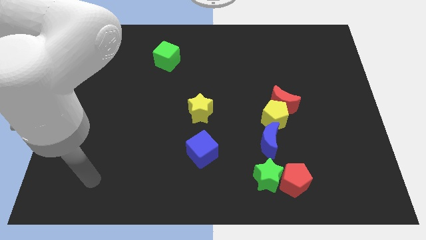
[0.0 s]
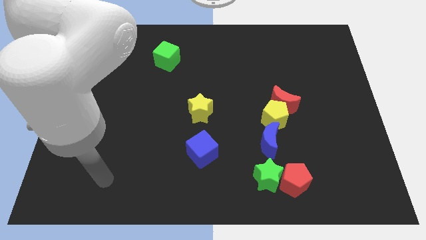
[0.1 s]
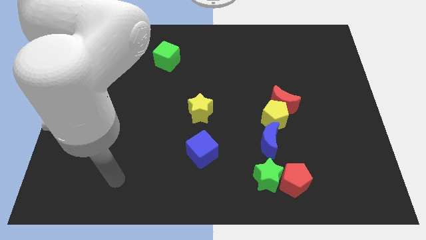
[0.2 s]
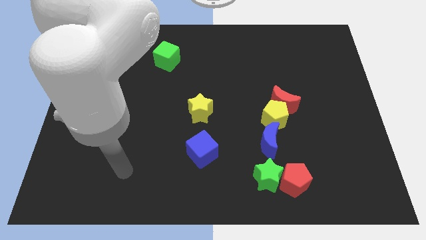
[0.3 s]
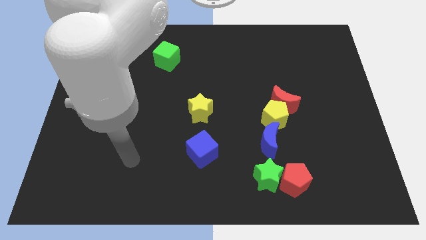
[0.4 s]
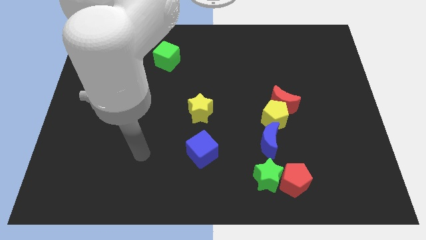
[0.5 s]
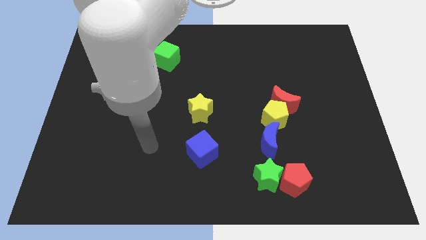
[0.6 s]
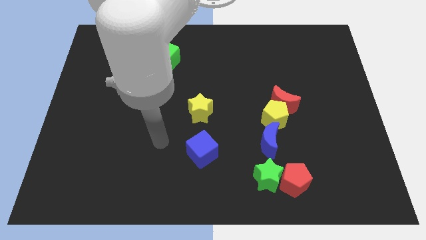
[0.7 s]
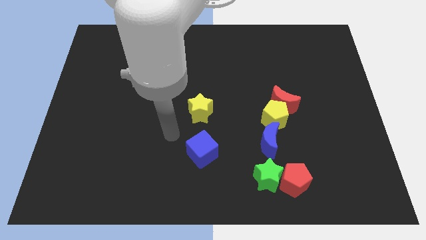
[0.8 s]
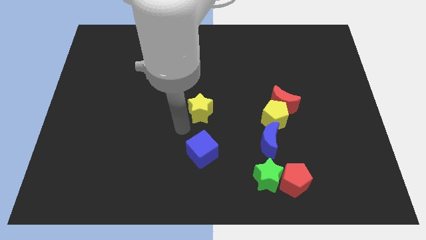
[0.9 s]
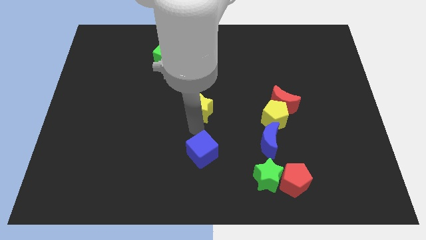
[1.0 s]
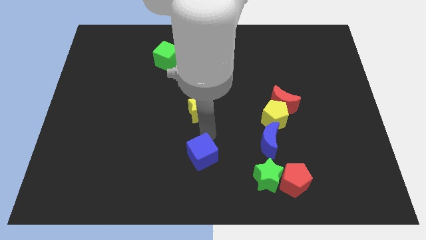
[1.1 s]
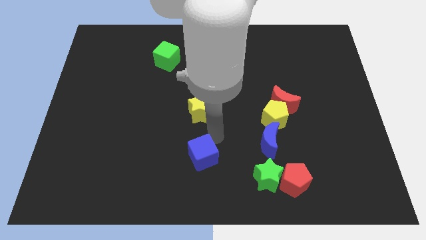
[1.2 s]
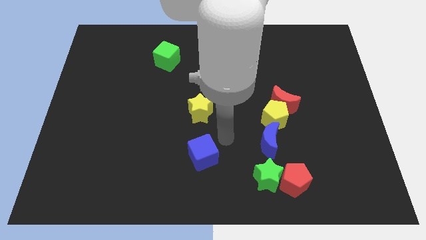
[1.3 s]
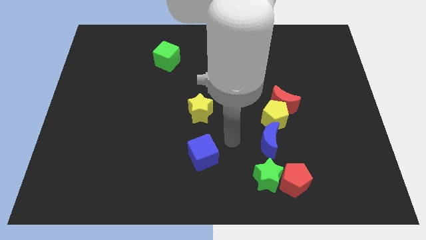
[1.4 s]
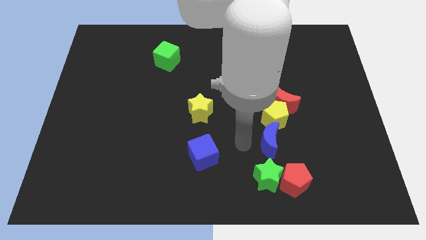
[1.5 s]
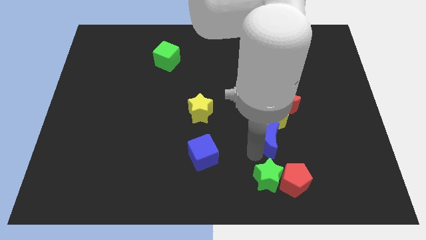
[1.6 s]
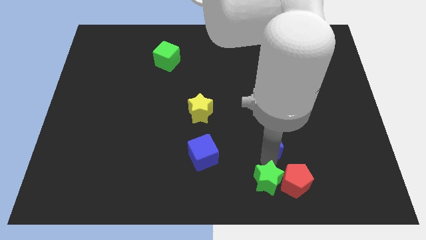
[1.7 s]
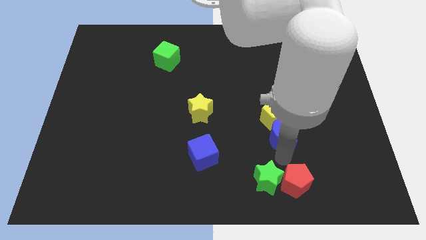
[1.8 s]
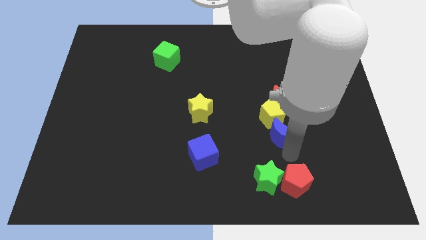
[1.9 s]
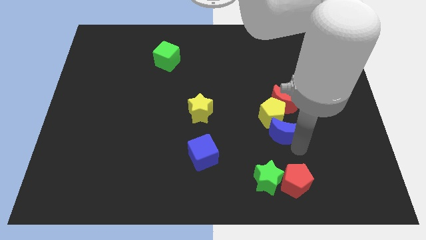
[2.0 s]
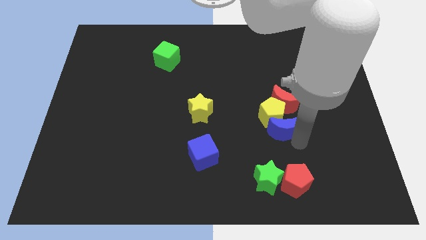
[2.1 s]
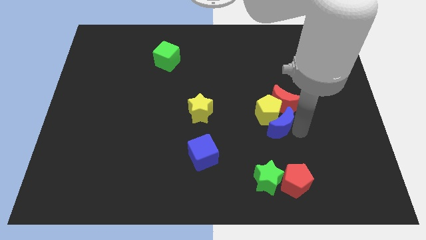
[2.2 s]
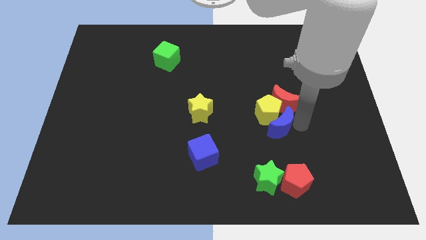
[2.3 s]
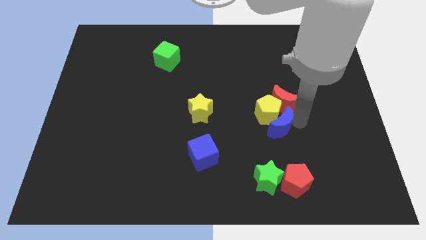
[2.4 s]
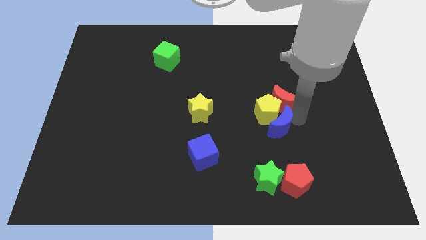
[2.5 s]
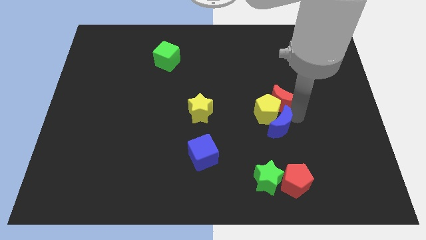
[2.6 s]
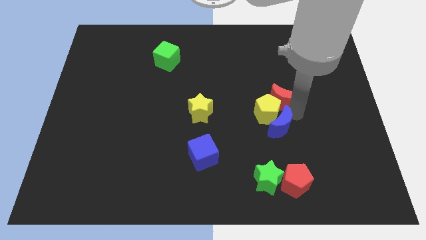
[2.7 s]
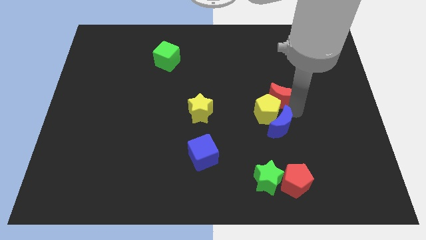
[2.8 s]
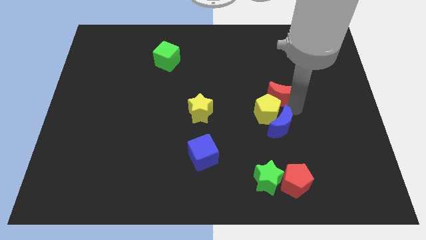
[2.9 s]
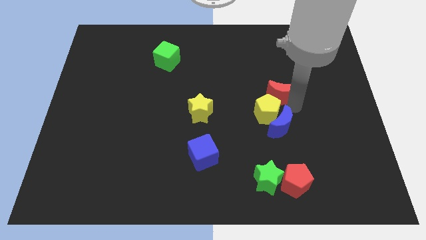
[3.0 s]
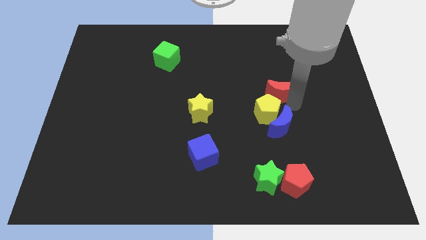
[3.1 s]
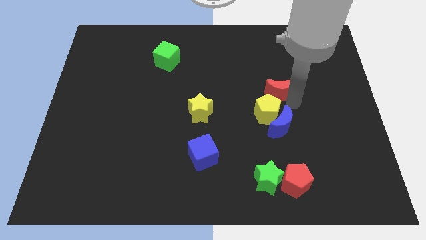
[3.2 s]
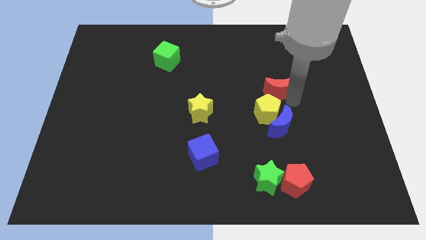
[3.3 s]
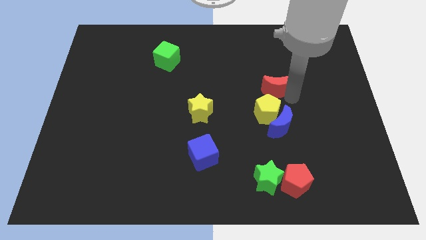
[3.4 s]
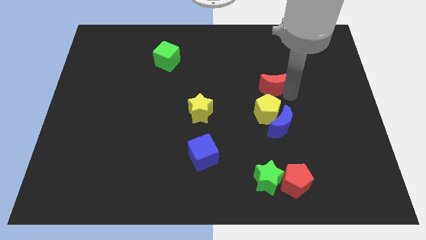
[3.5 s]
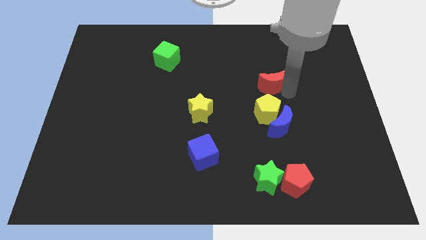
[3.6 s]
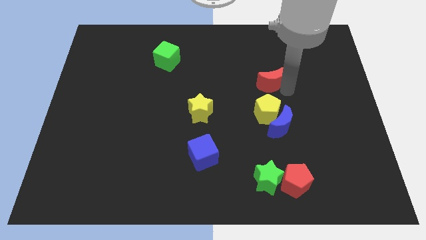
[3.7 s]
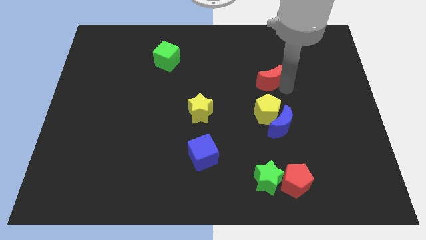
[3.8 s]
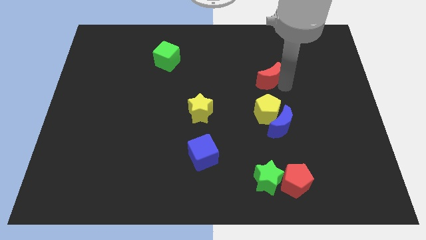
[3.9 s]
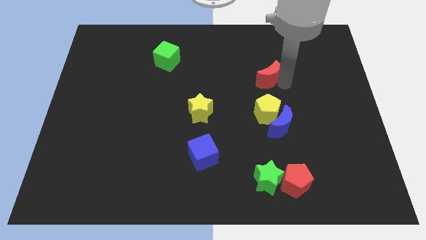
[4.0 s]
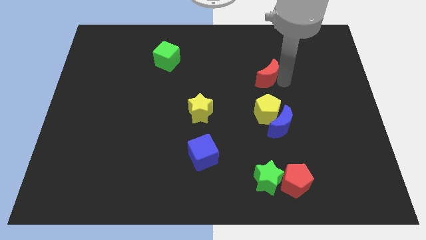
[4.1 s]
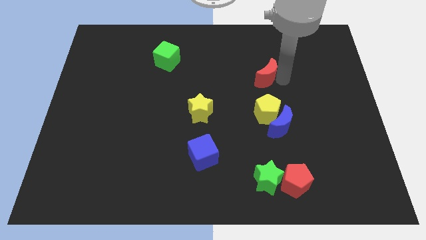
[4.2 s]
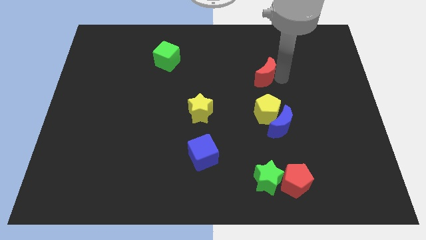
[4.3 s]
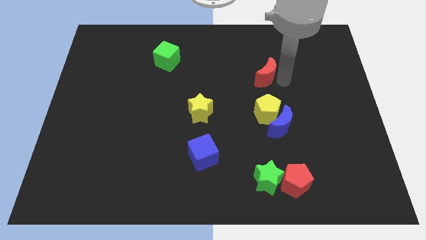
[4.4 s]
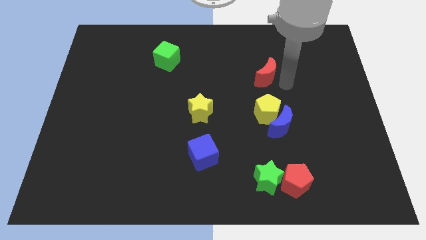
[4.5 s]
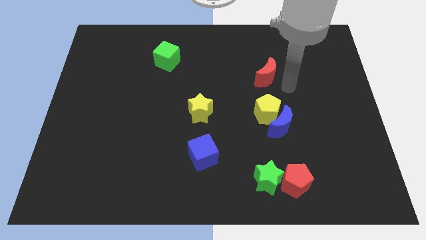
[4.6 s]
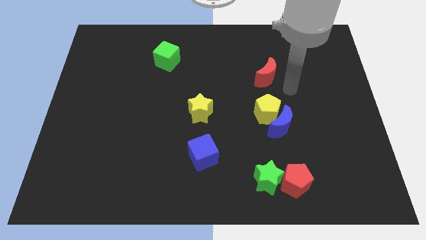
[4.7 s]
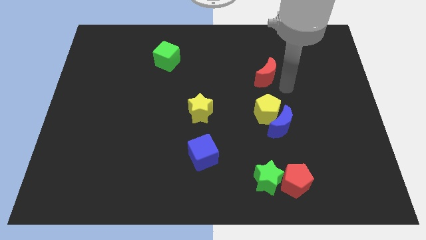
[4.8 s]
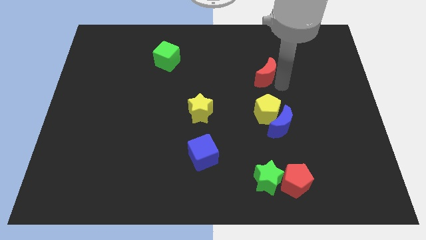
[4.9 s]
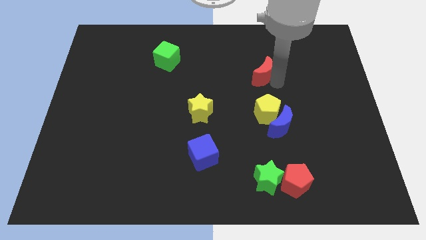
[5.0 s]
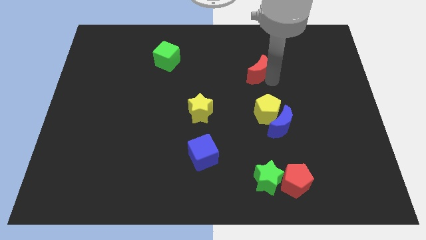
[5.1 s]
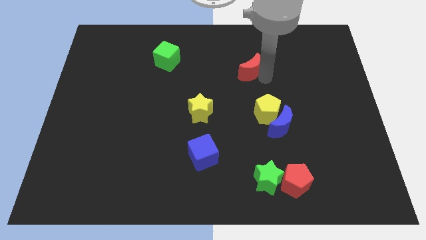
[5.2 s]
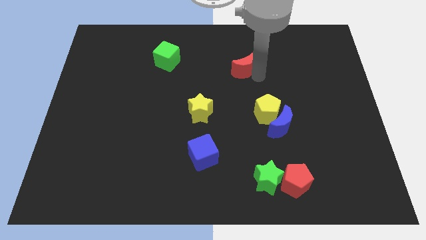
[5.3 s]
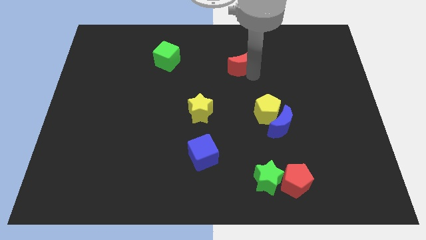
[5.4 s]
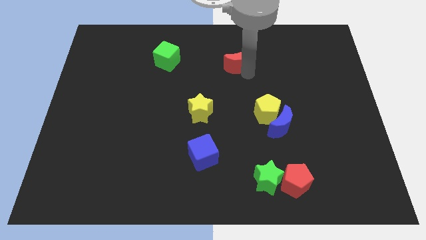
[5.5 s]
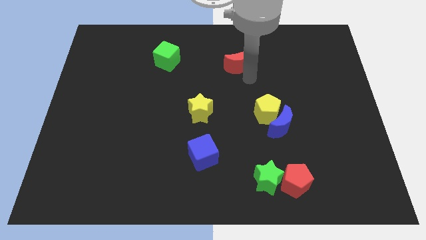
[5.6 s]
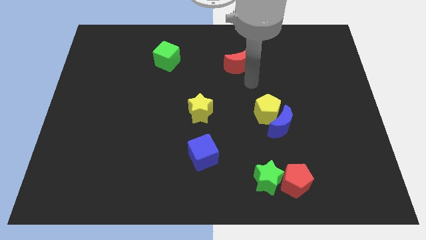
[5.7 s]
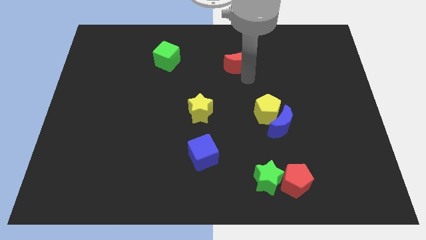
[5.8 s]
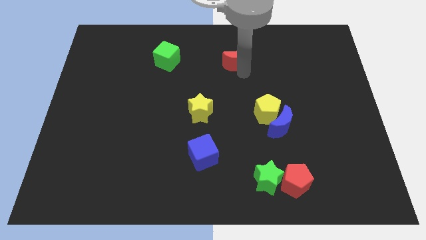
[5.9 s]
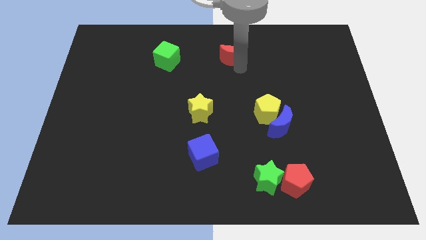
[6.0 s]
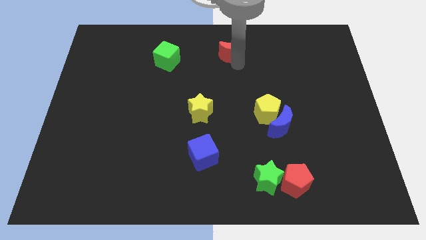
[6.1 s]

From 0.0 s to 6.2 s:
push the red moon to the top
